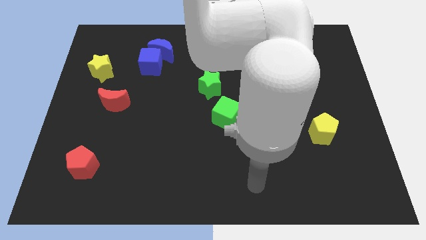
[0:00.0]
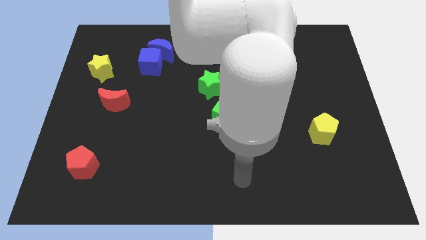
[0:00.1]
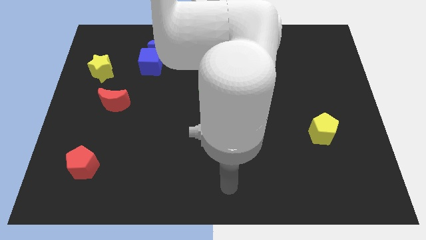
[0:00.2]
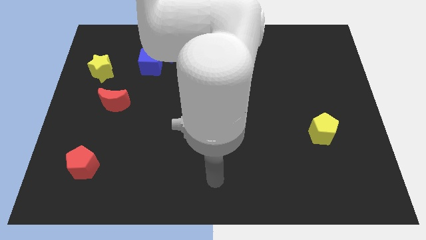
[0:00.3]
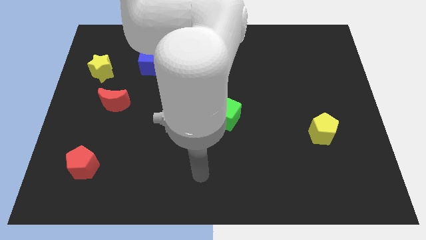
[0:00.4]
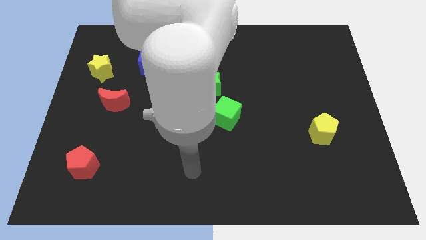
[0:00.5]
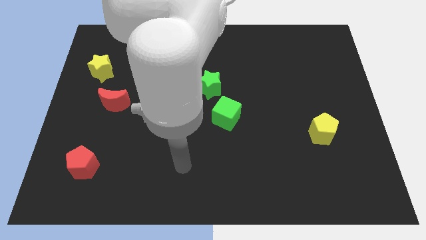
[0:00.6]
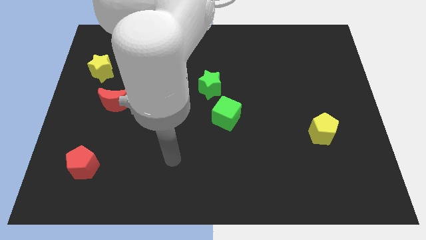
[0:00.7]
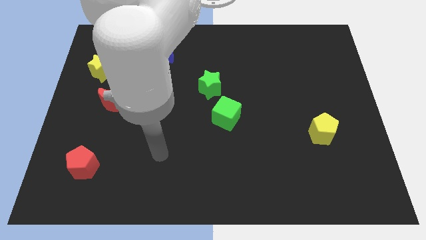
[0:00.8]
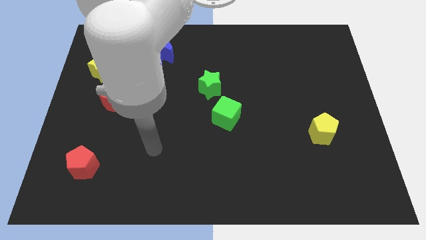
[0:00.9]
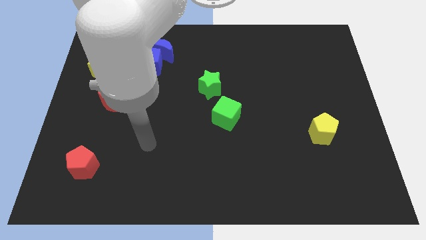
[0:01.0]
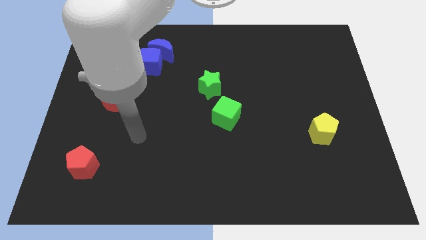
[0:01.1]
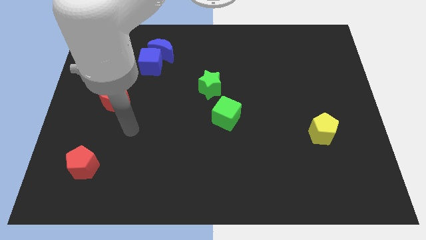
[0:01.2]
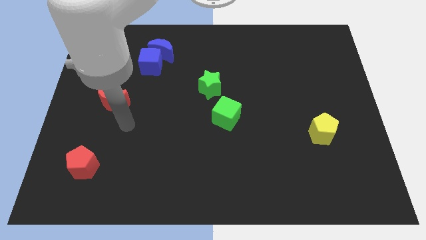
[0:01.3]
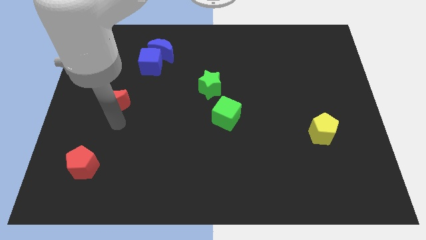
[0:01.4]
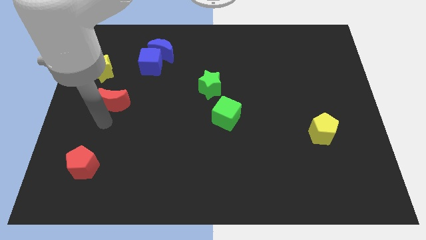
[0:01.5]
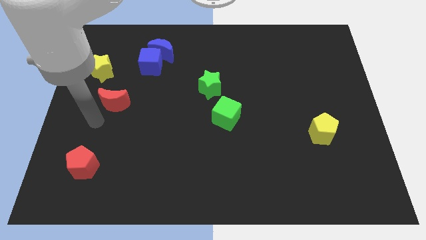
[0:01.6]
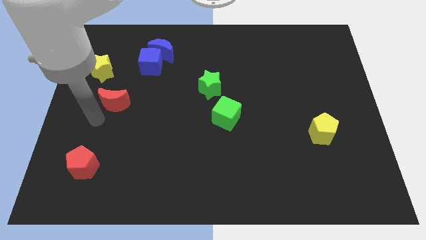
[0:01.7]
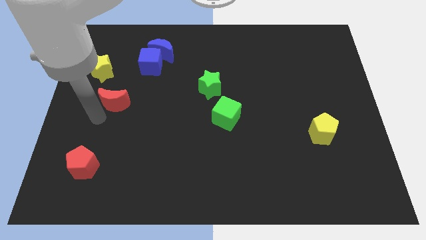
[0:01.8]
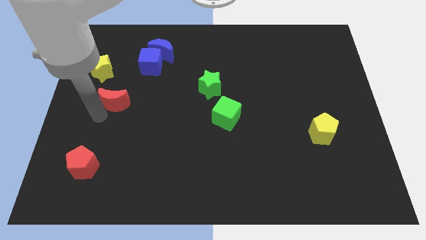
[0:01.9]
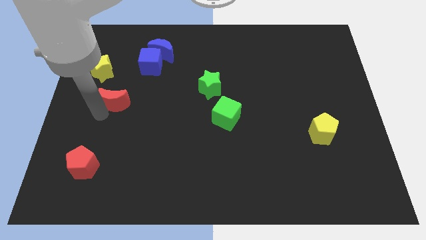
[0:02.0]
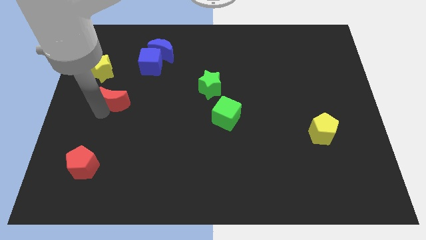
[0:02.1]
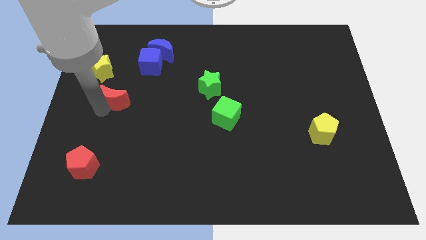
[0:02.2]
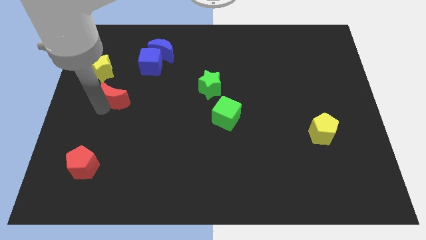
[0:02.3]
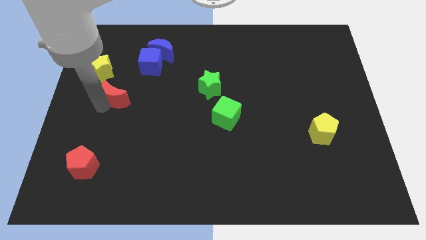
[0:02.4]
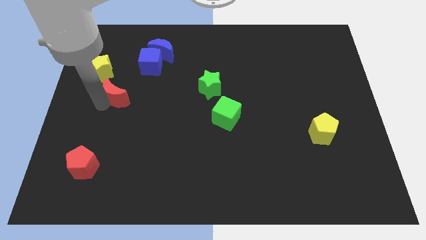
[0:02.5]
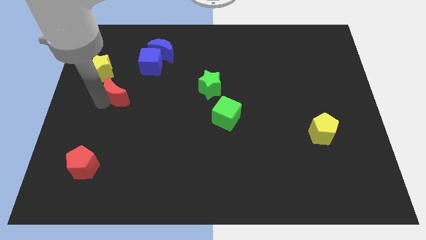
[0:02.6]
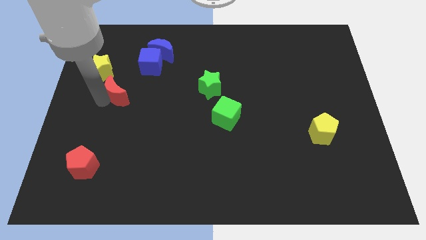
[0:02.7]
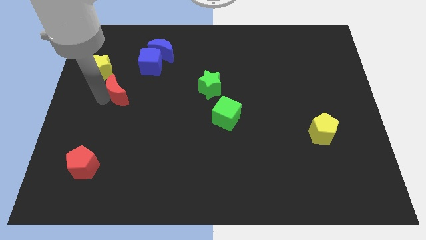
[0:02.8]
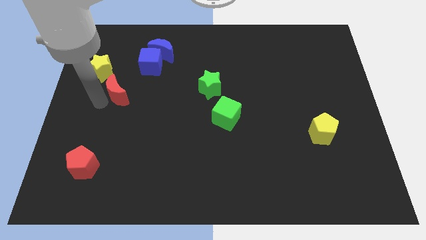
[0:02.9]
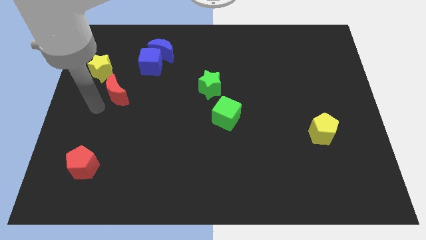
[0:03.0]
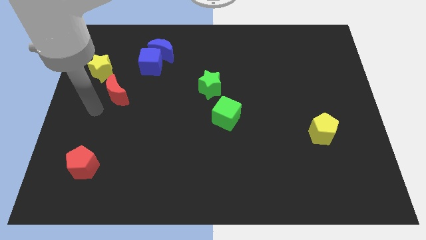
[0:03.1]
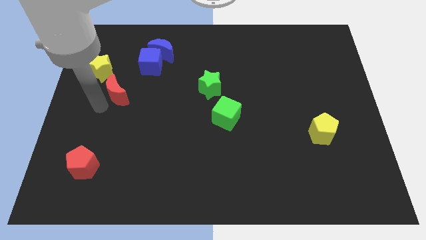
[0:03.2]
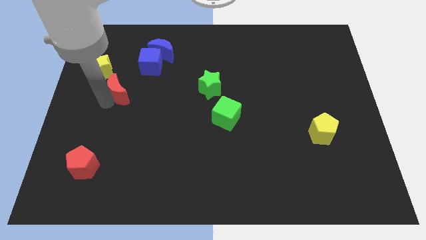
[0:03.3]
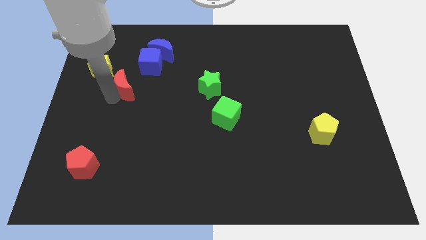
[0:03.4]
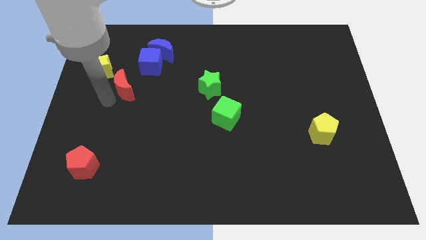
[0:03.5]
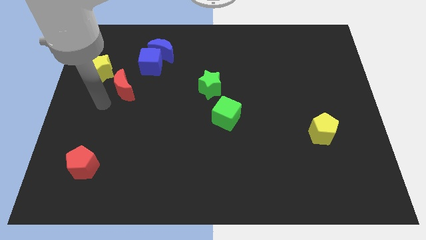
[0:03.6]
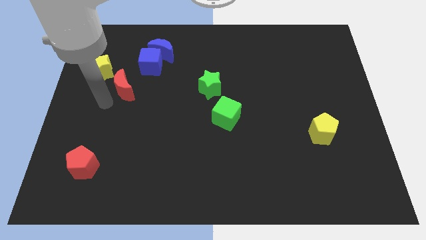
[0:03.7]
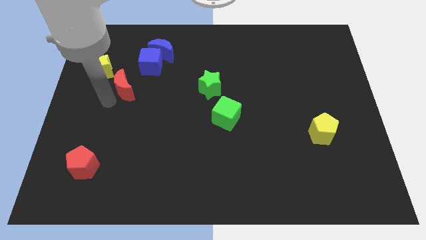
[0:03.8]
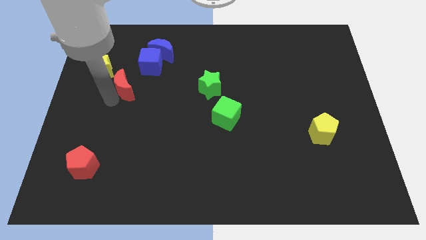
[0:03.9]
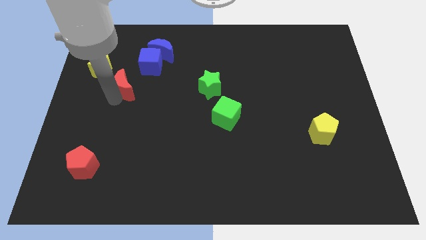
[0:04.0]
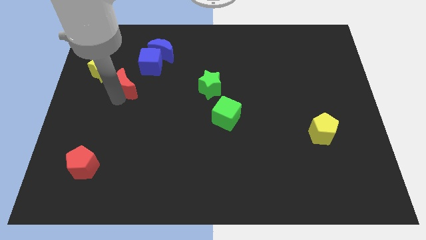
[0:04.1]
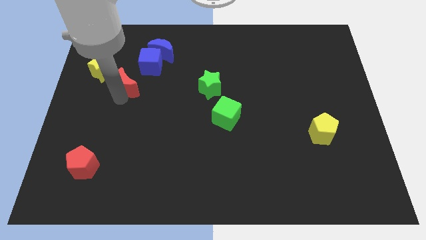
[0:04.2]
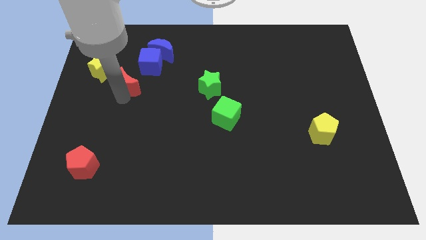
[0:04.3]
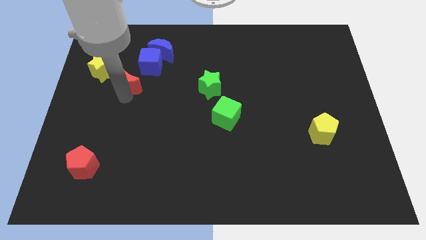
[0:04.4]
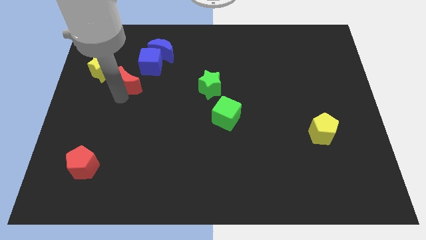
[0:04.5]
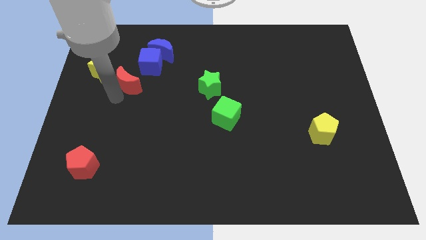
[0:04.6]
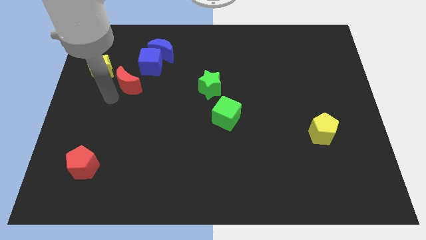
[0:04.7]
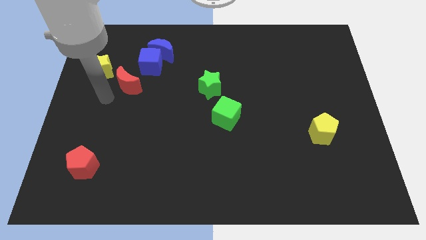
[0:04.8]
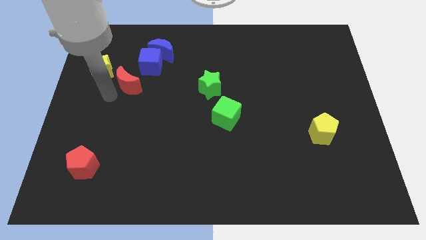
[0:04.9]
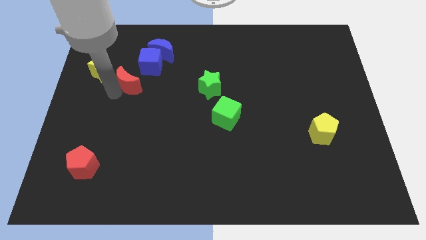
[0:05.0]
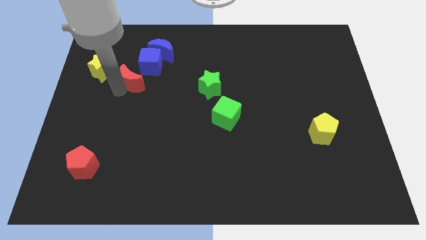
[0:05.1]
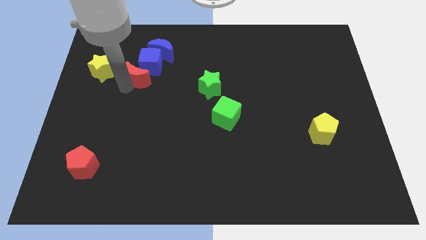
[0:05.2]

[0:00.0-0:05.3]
push the red moon to the blue cube

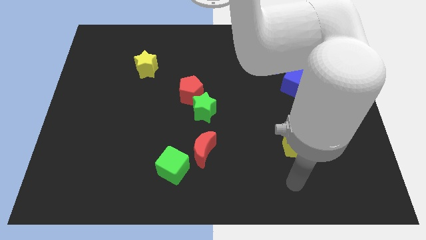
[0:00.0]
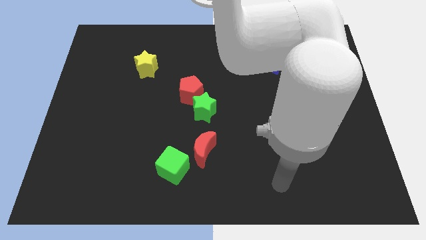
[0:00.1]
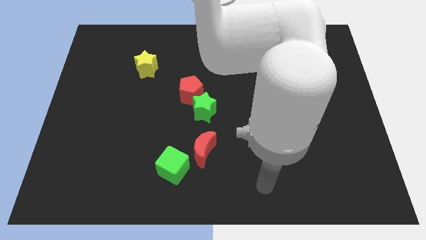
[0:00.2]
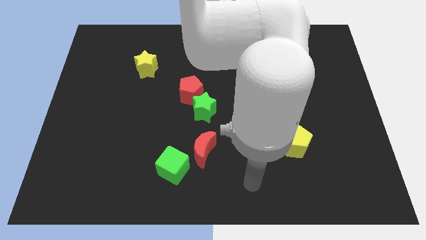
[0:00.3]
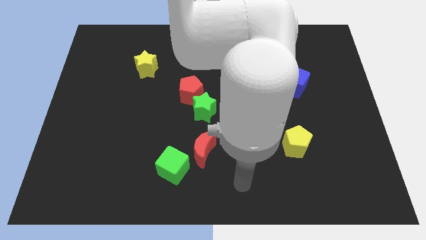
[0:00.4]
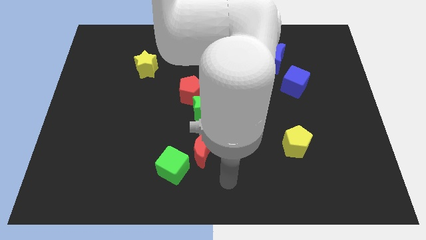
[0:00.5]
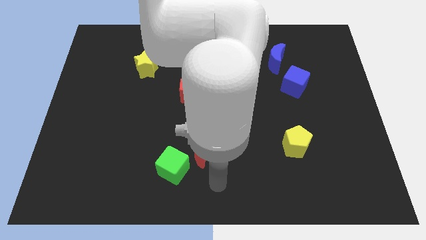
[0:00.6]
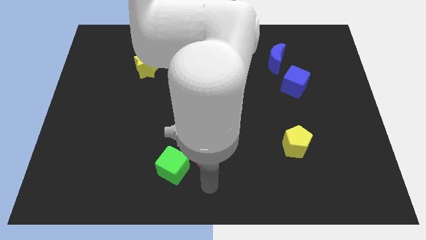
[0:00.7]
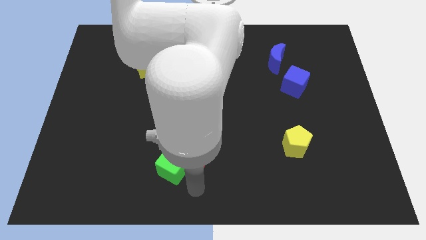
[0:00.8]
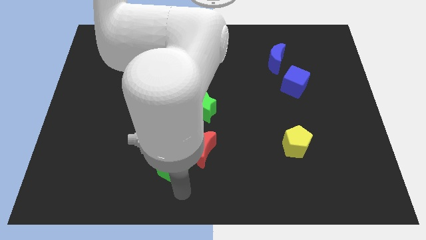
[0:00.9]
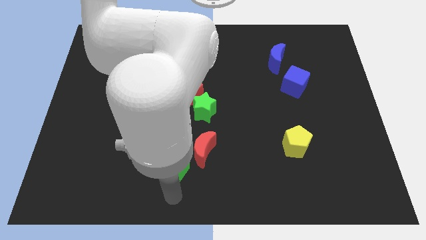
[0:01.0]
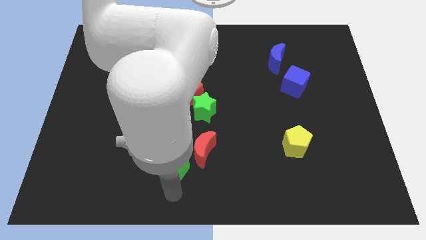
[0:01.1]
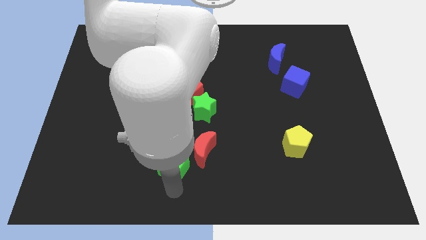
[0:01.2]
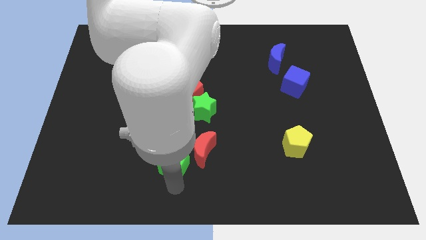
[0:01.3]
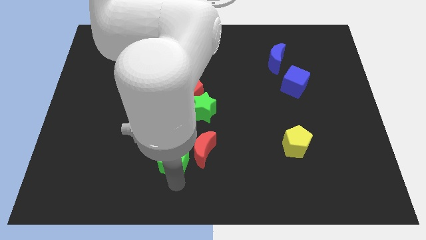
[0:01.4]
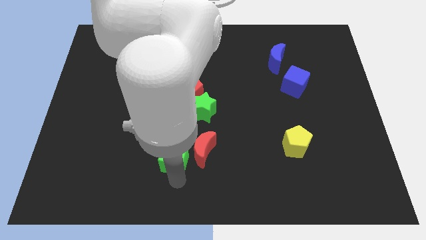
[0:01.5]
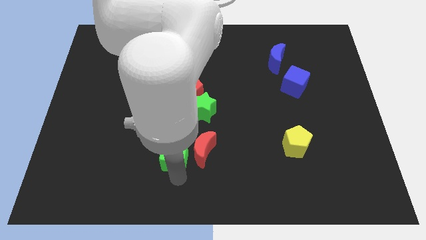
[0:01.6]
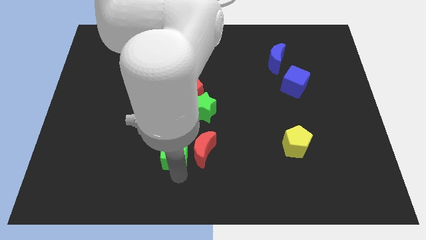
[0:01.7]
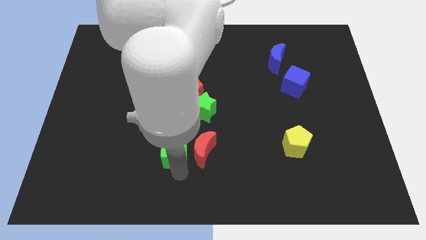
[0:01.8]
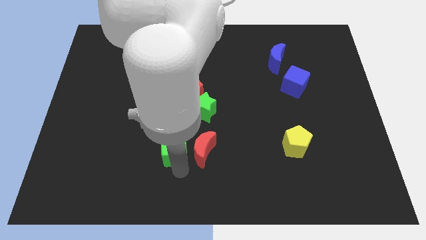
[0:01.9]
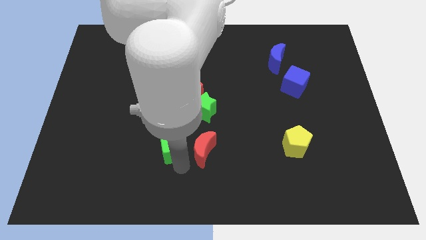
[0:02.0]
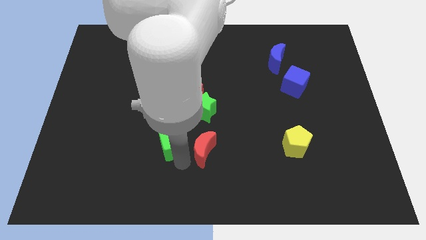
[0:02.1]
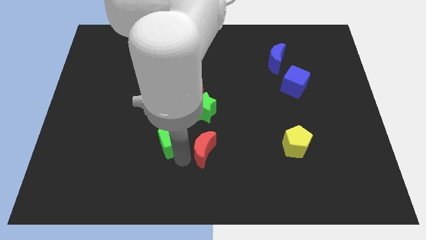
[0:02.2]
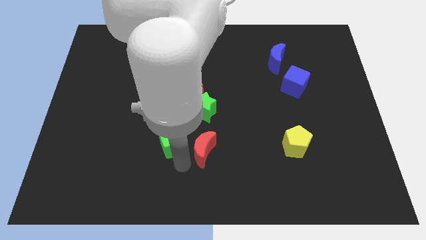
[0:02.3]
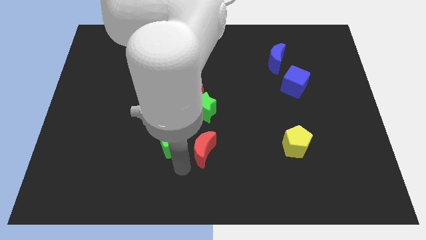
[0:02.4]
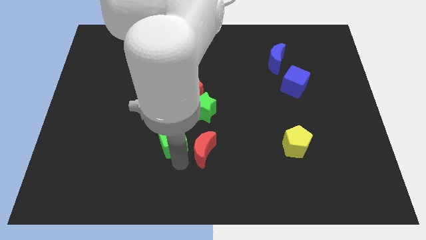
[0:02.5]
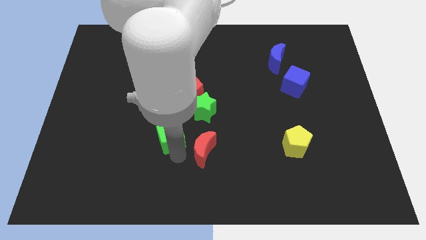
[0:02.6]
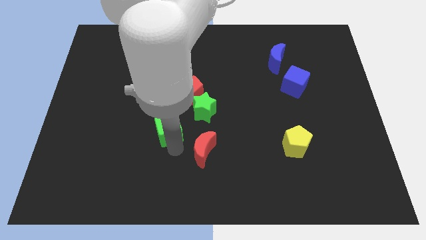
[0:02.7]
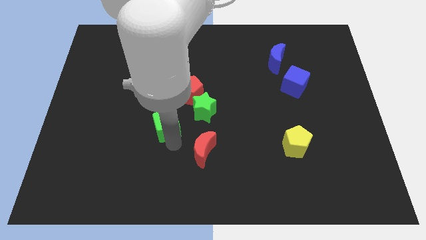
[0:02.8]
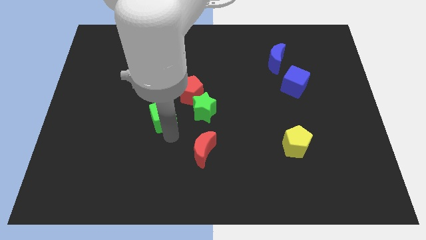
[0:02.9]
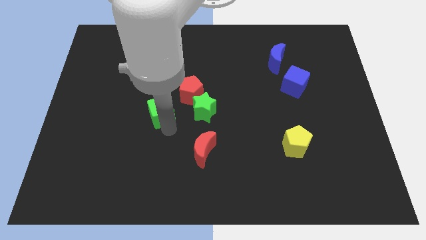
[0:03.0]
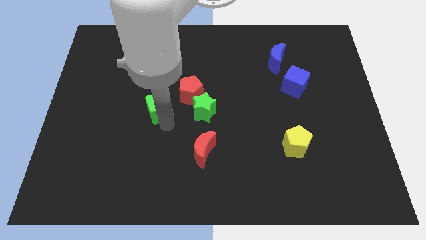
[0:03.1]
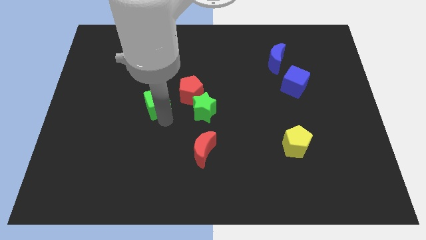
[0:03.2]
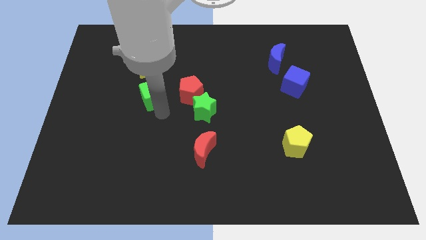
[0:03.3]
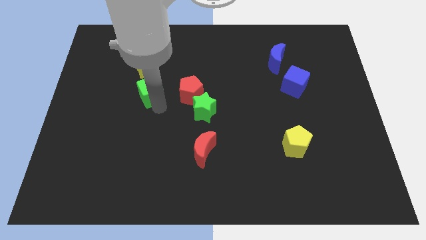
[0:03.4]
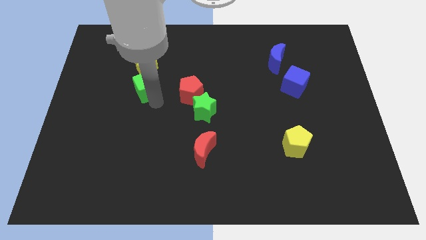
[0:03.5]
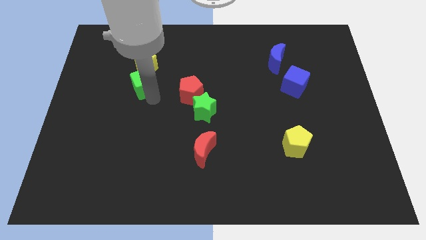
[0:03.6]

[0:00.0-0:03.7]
move the green cube towards the yellow star
